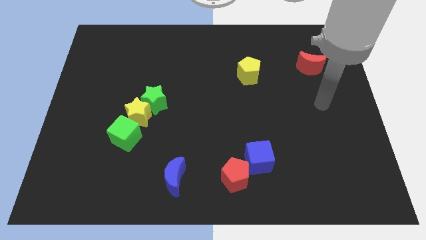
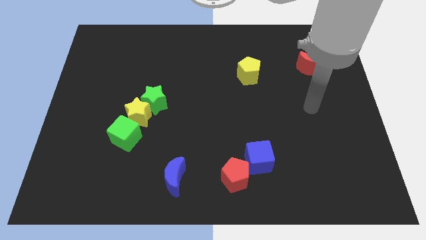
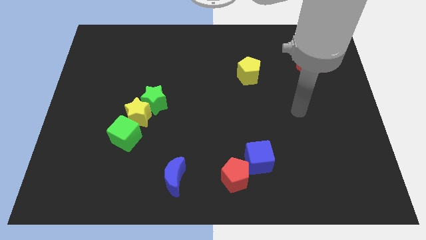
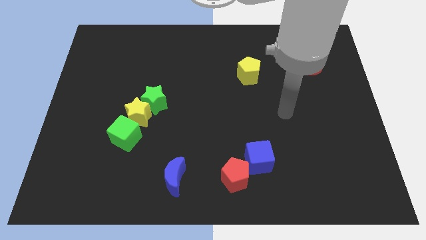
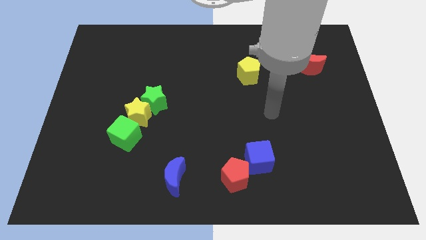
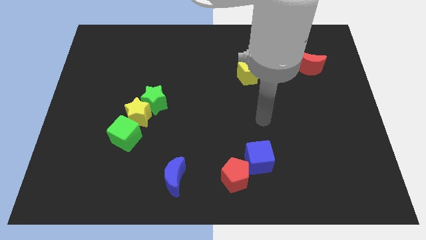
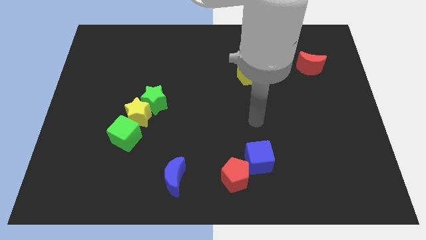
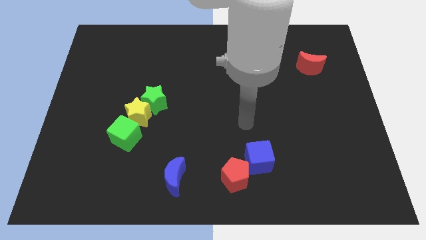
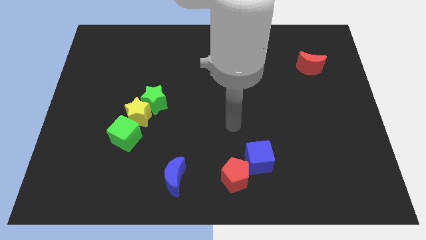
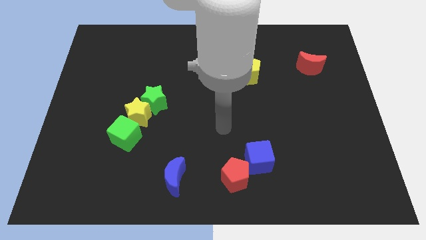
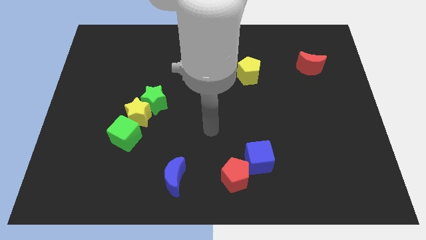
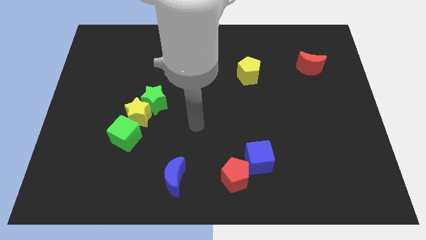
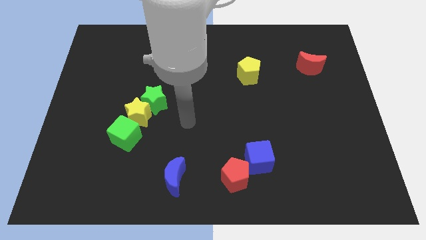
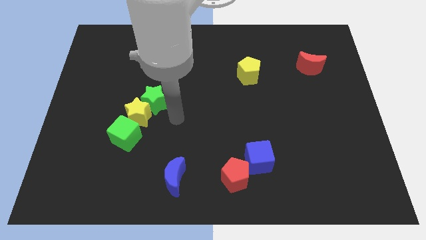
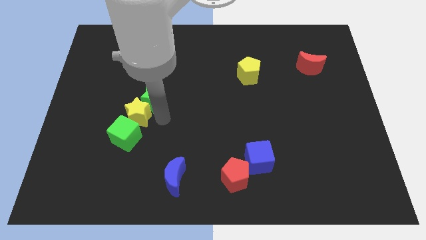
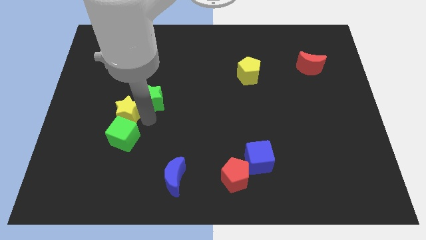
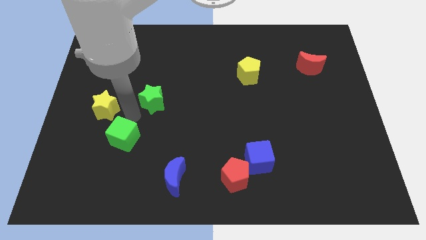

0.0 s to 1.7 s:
move the green star away from the yellow star

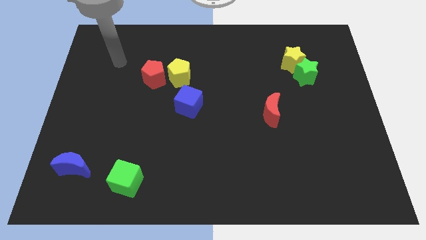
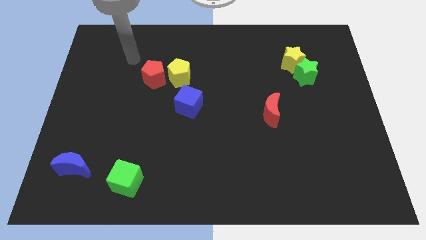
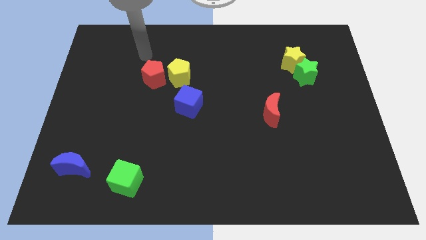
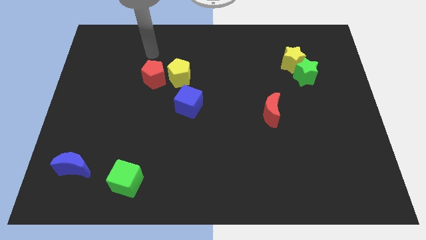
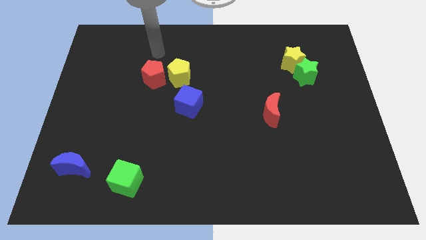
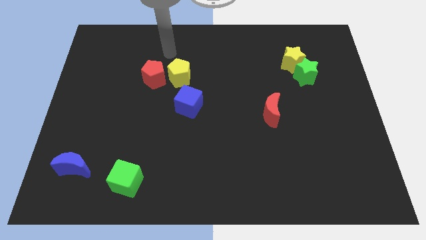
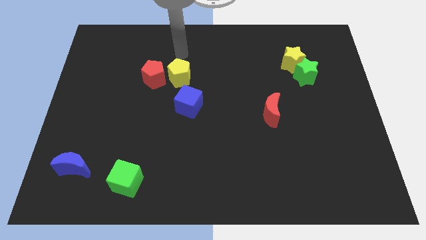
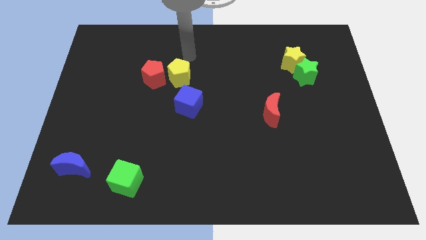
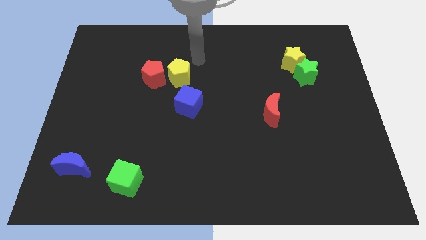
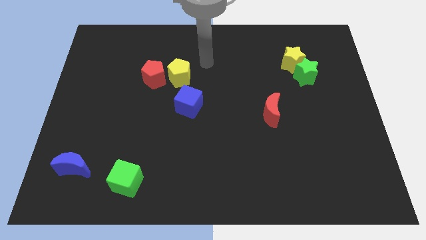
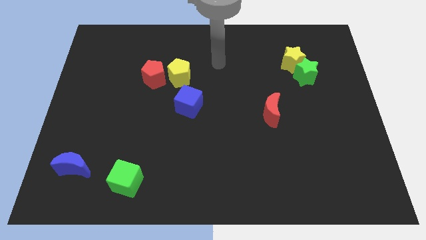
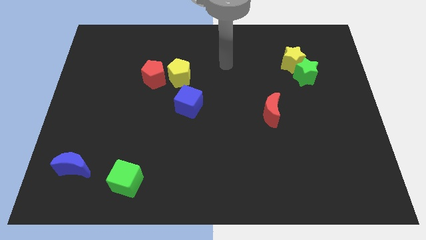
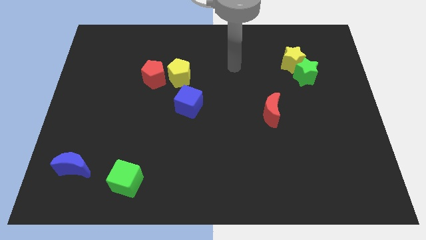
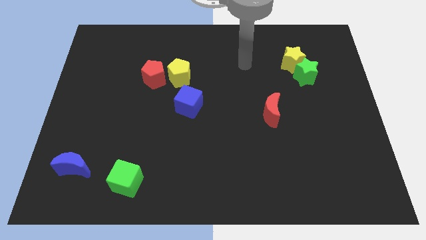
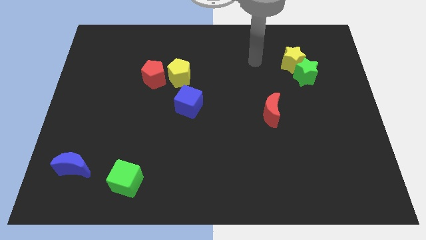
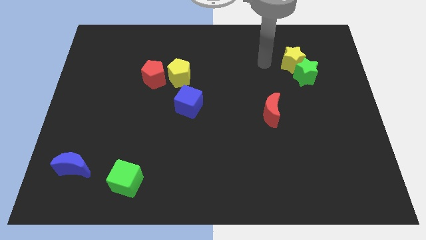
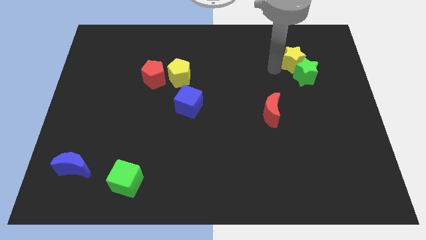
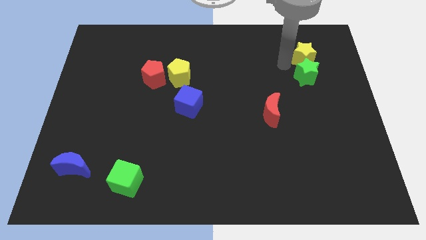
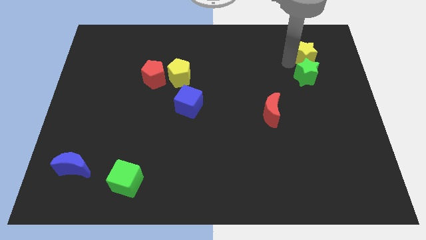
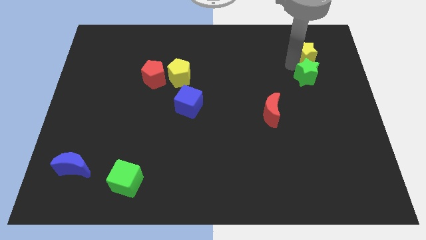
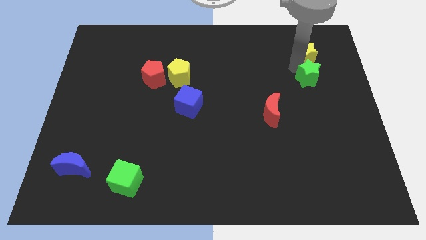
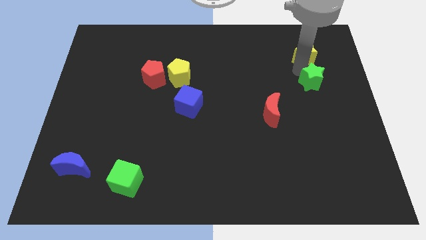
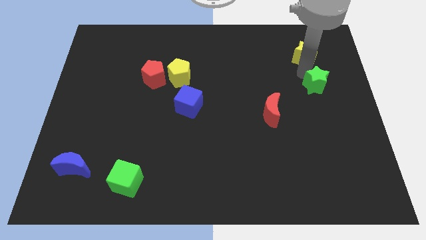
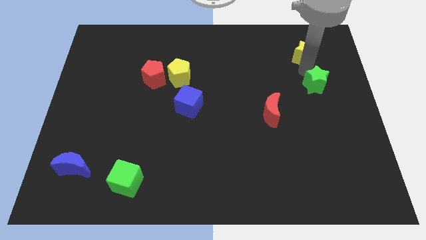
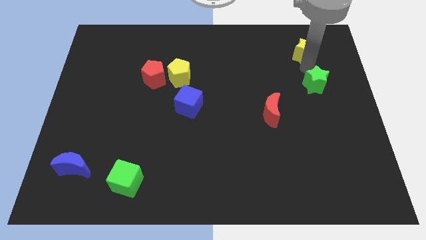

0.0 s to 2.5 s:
separate the green star from the yellow star

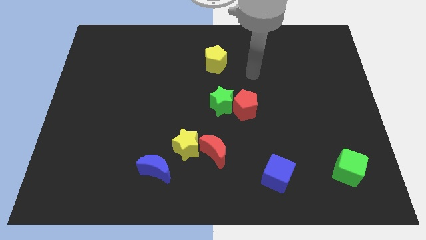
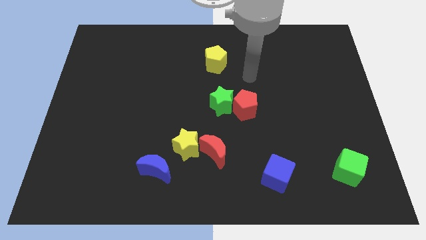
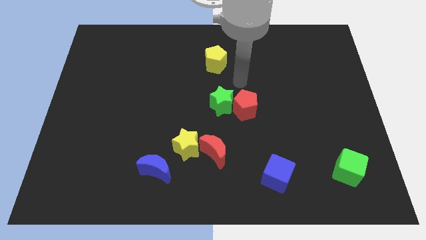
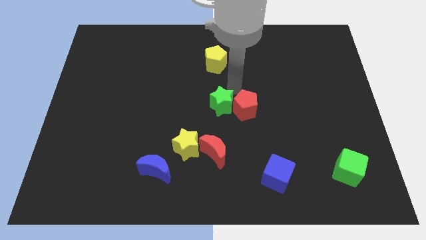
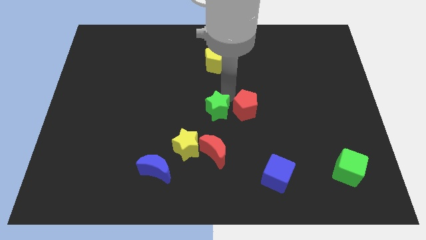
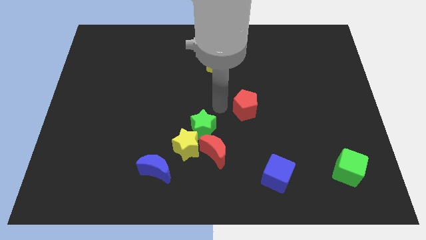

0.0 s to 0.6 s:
move the red pentagon away from the green star

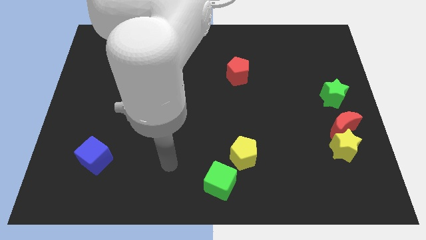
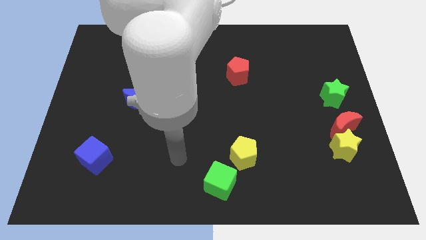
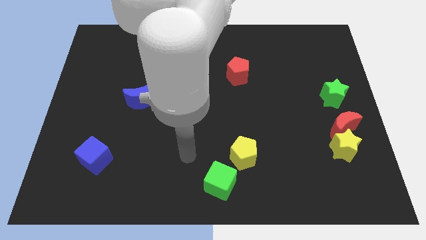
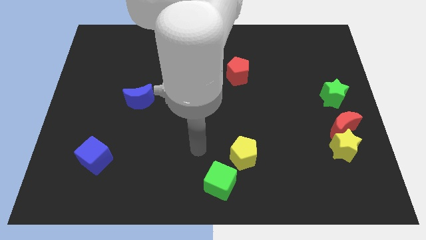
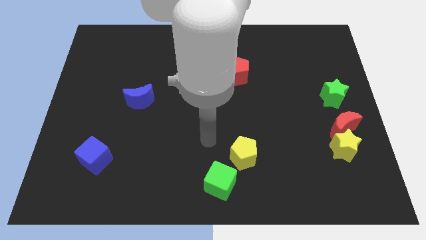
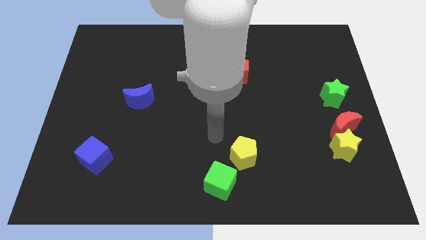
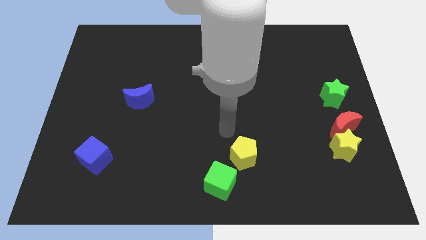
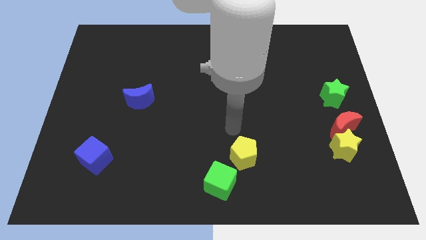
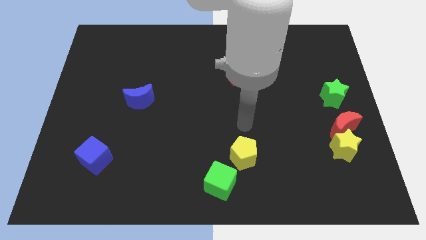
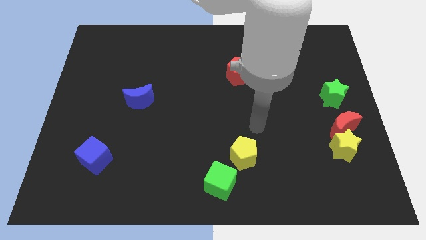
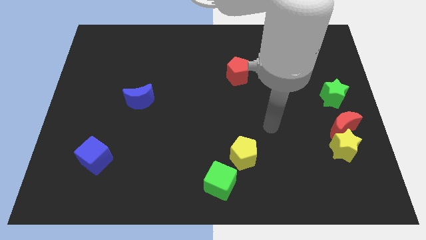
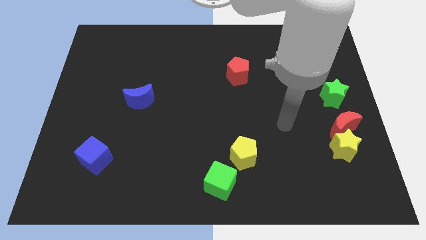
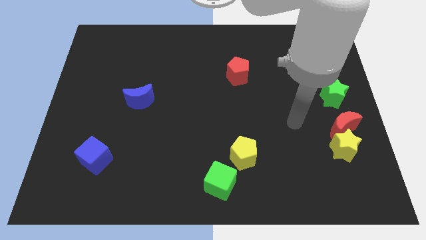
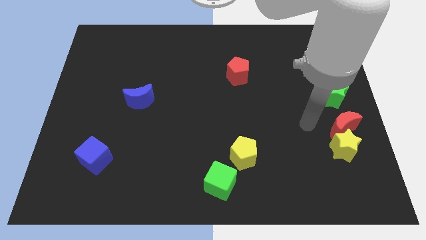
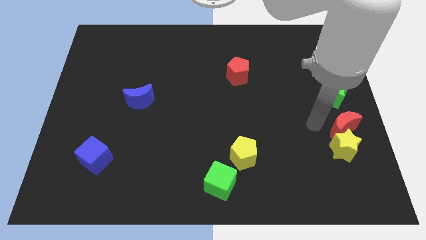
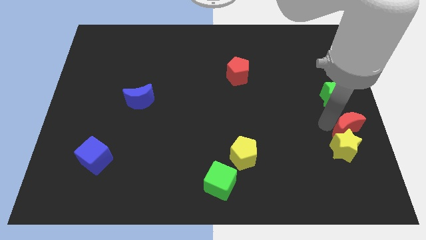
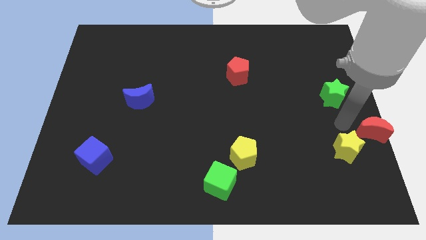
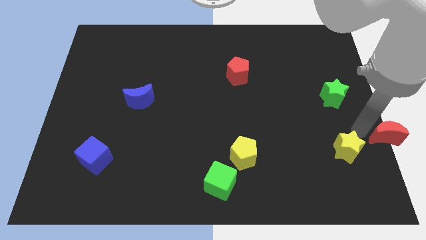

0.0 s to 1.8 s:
move the yellow star away from the red moon

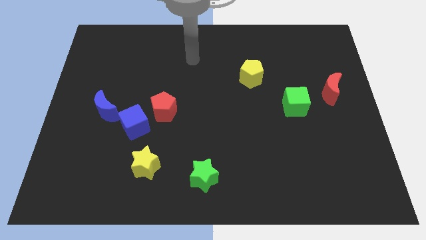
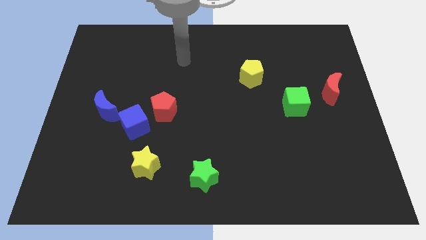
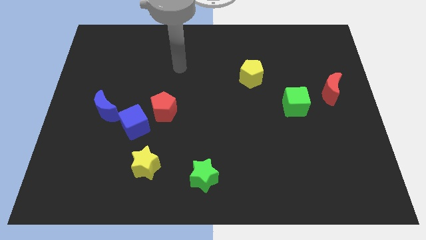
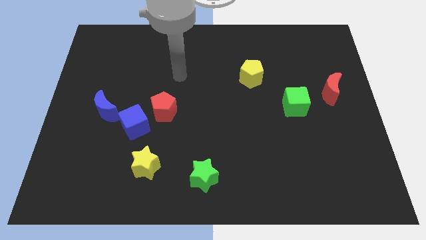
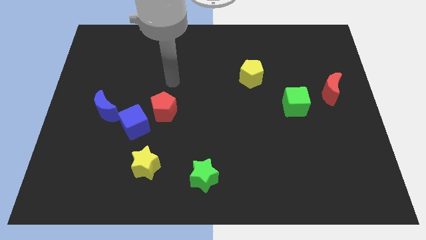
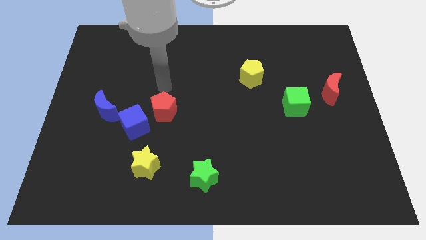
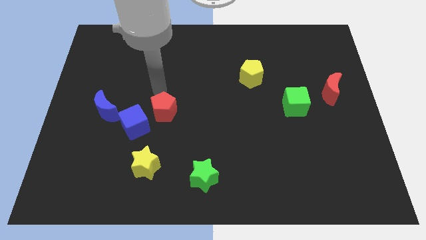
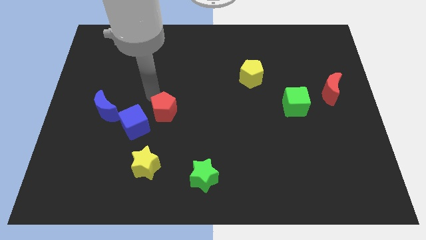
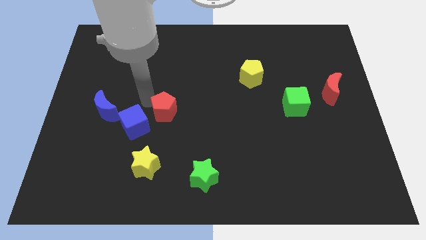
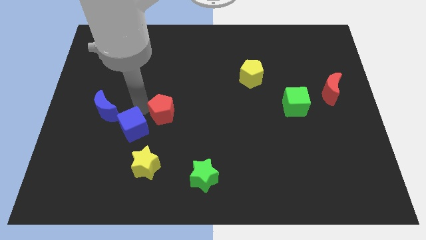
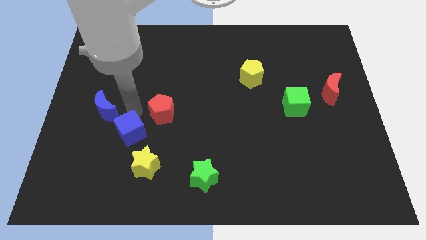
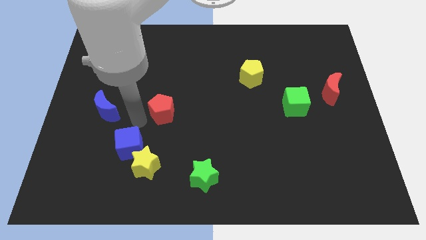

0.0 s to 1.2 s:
move the red pentagon away from the blue cube

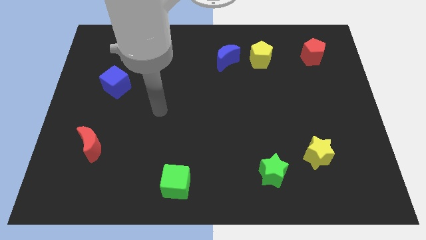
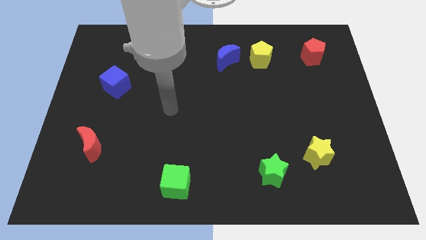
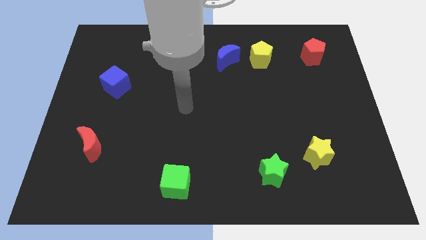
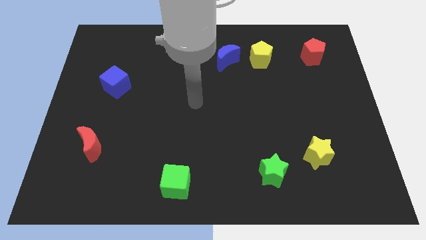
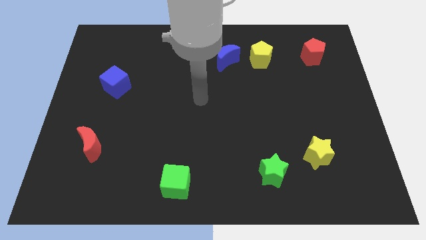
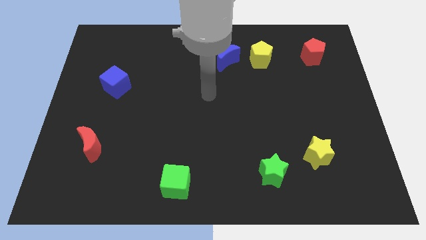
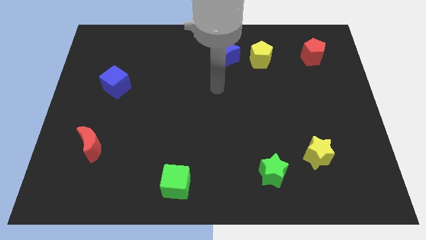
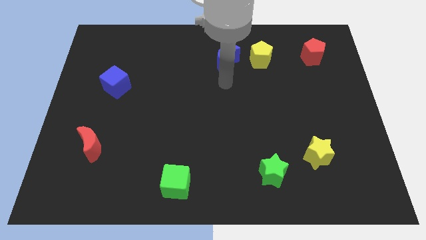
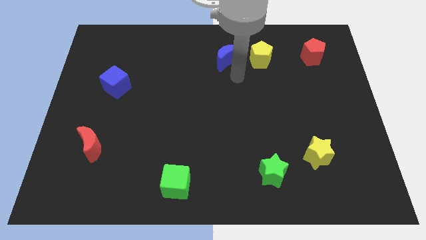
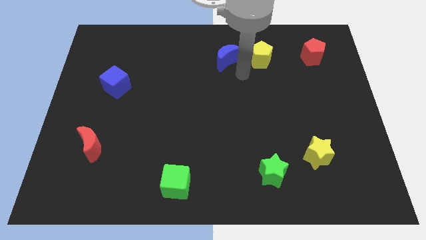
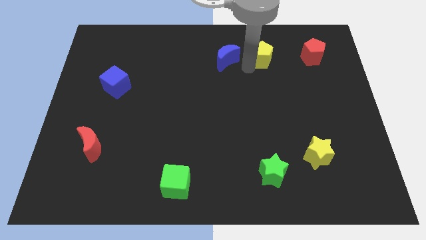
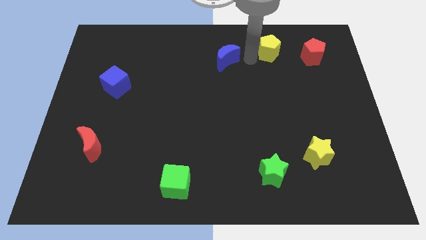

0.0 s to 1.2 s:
separate the blue moon from the yellow pentagon

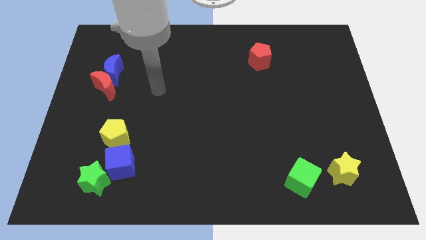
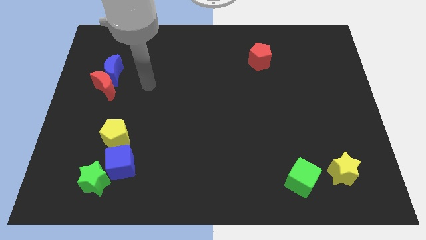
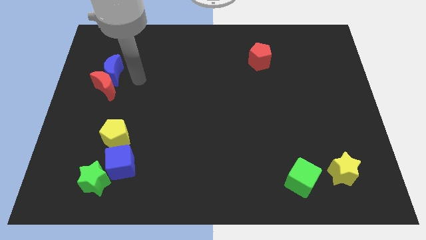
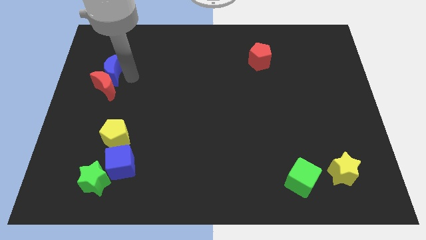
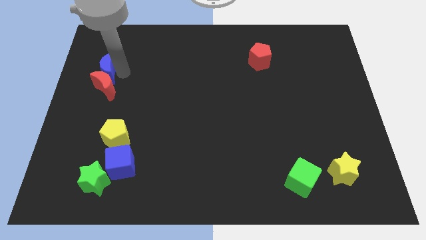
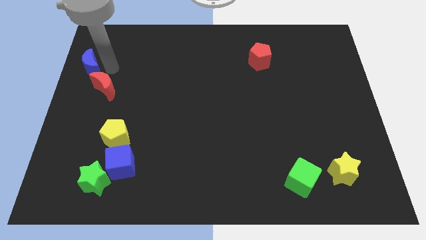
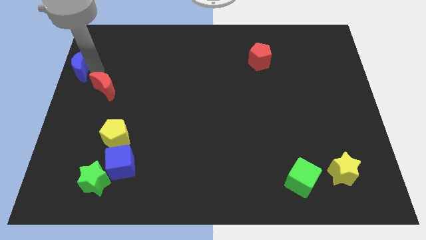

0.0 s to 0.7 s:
pull the red moon apart from the blue moon
